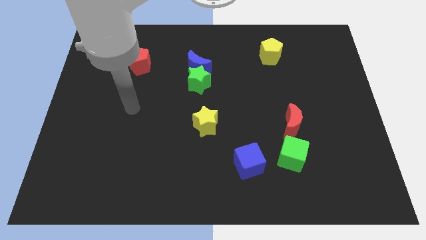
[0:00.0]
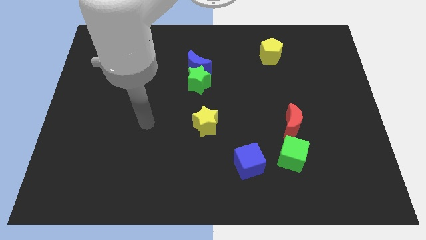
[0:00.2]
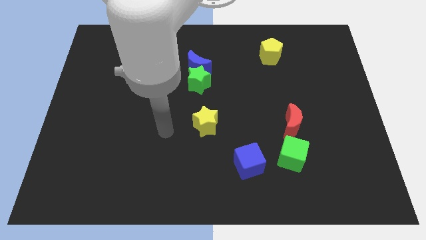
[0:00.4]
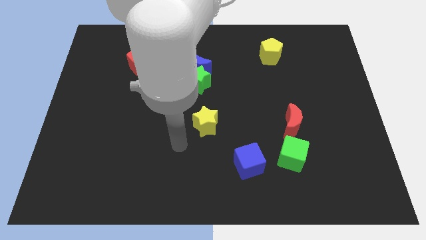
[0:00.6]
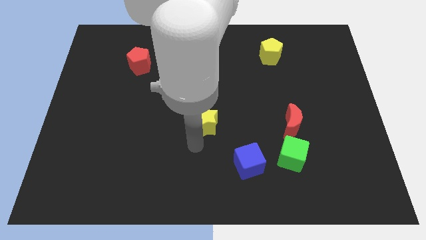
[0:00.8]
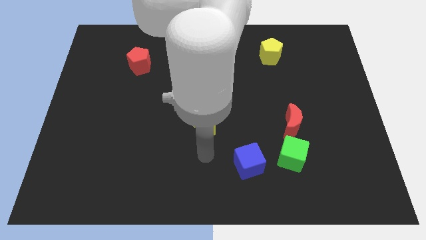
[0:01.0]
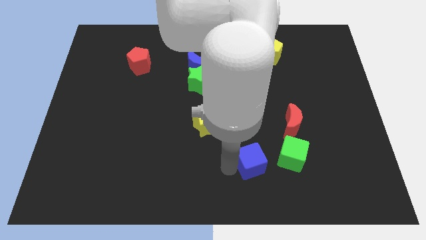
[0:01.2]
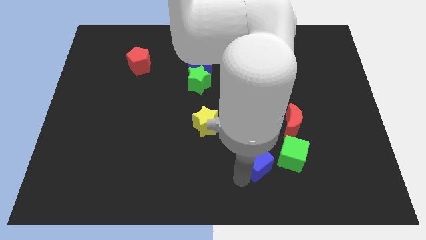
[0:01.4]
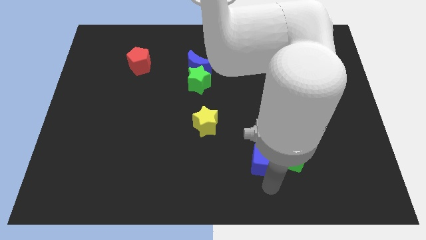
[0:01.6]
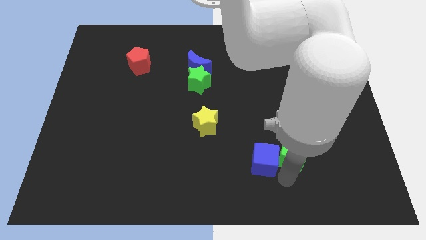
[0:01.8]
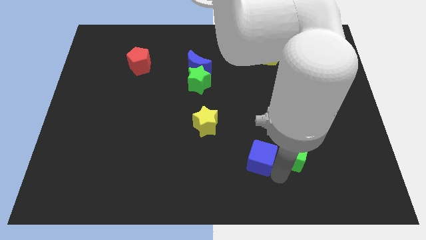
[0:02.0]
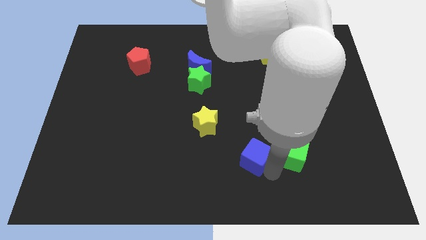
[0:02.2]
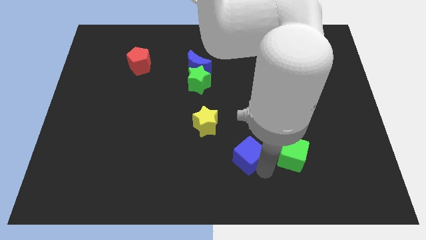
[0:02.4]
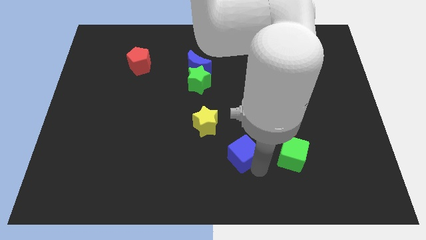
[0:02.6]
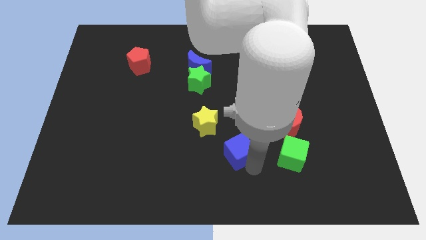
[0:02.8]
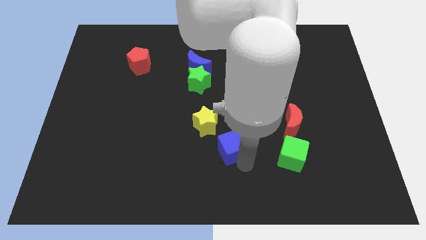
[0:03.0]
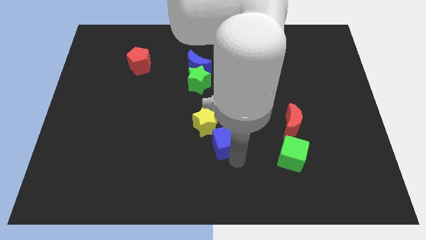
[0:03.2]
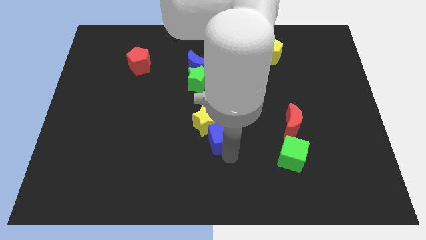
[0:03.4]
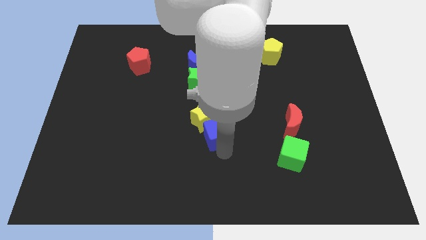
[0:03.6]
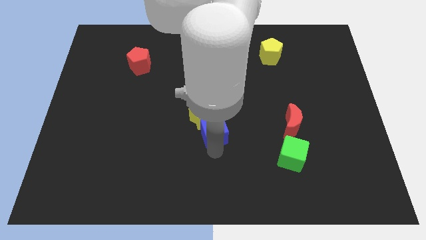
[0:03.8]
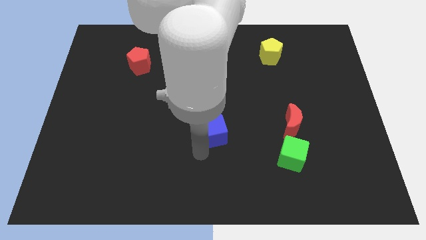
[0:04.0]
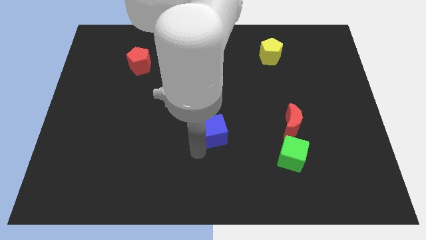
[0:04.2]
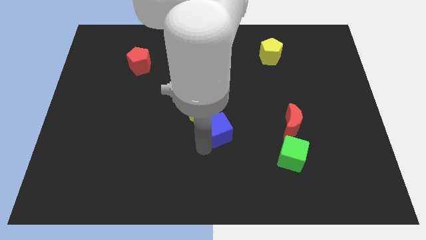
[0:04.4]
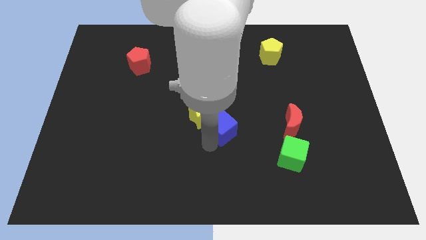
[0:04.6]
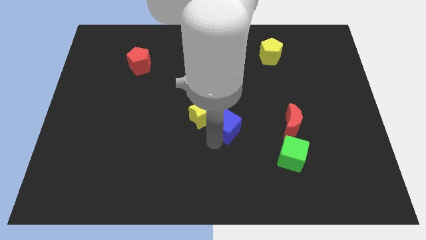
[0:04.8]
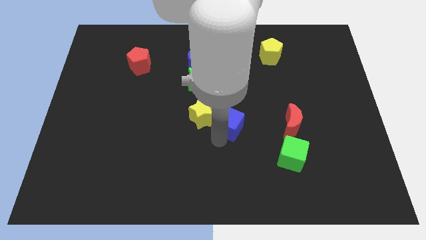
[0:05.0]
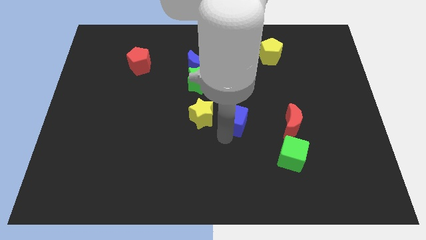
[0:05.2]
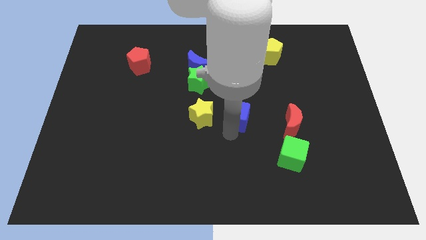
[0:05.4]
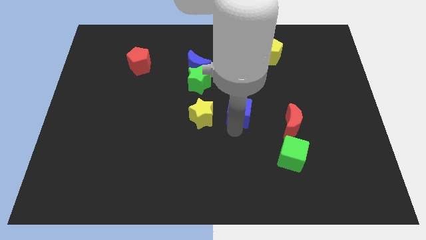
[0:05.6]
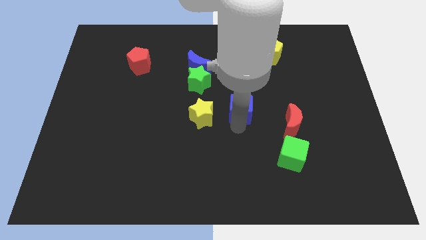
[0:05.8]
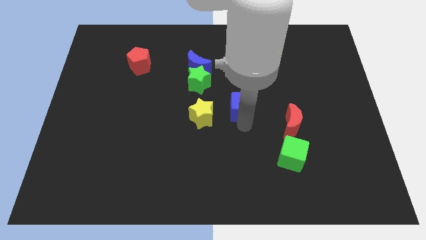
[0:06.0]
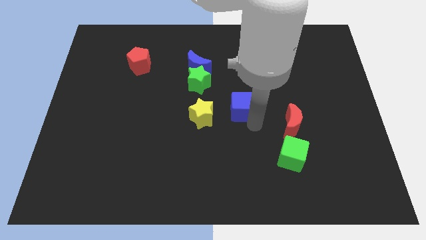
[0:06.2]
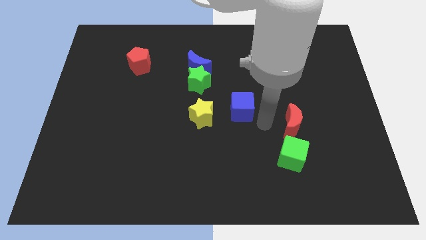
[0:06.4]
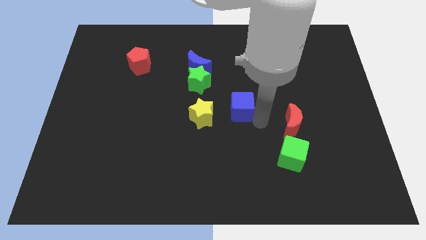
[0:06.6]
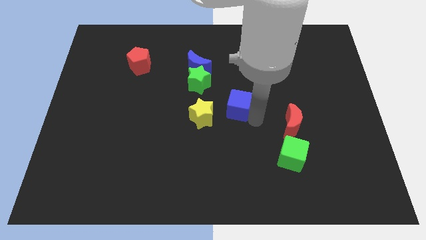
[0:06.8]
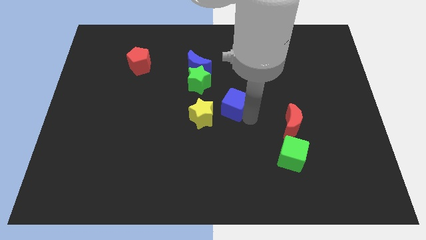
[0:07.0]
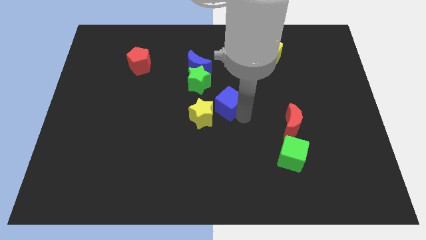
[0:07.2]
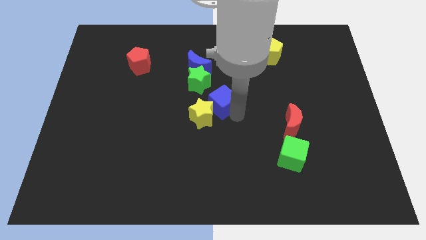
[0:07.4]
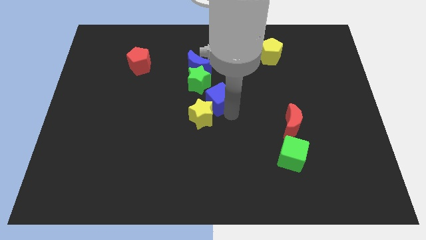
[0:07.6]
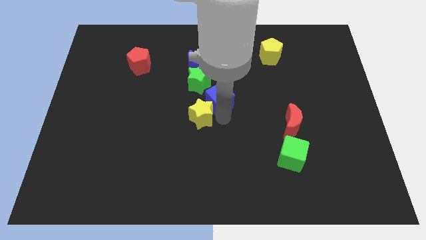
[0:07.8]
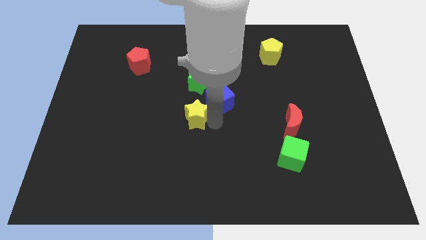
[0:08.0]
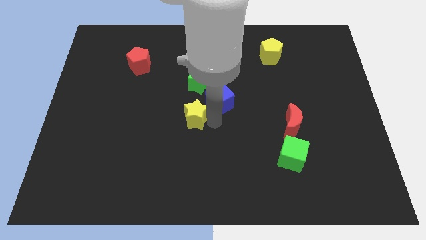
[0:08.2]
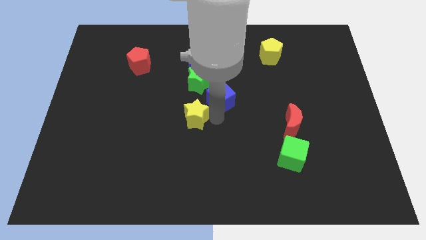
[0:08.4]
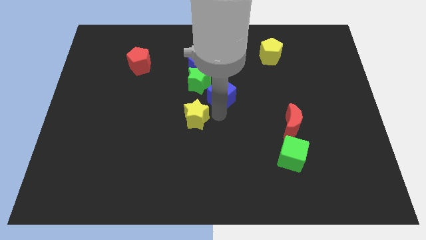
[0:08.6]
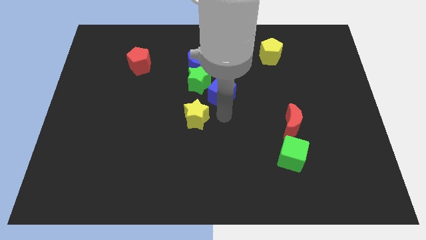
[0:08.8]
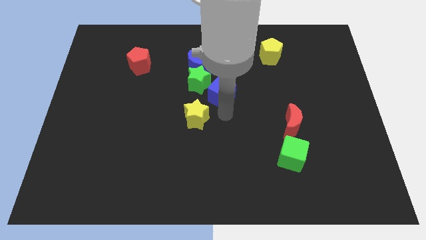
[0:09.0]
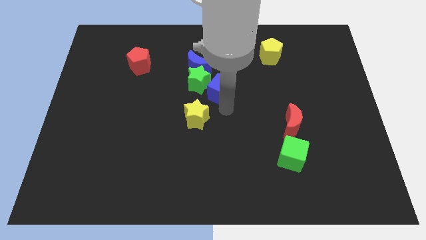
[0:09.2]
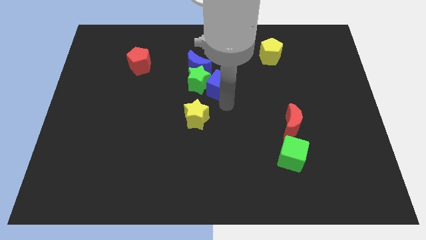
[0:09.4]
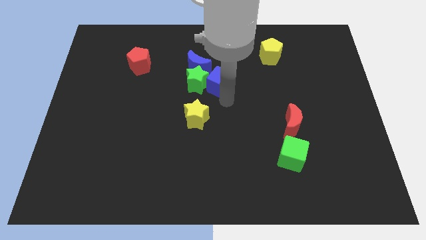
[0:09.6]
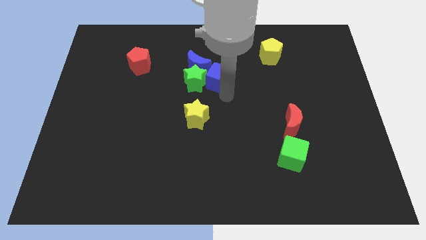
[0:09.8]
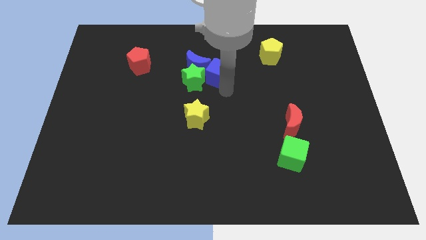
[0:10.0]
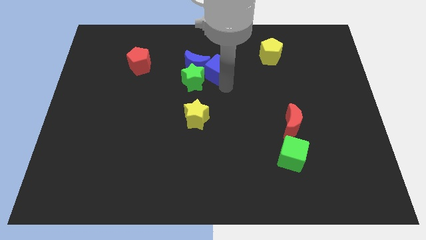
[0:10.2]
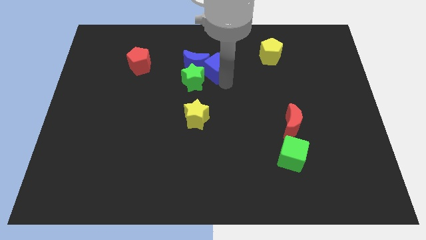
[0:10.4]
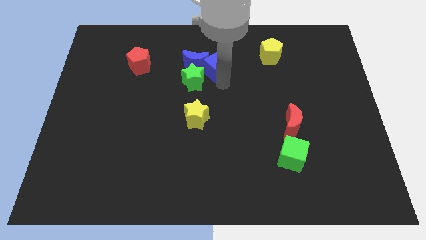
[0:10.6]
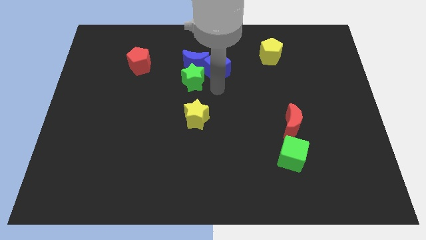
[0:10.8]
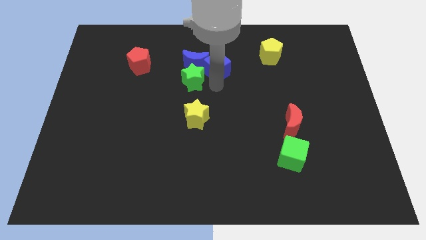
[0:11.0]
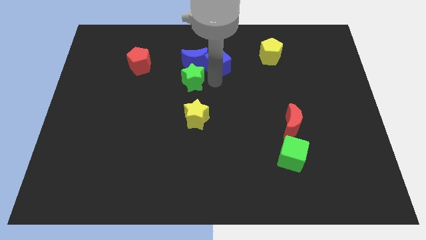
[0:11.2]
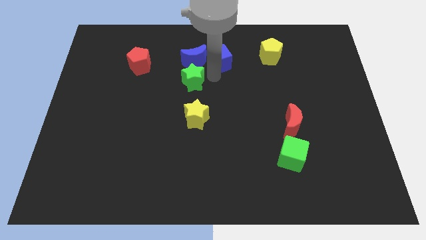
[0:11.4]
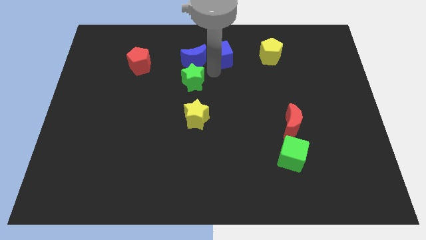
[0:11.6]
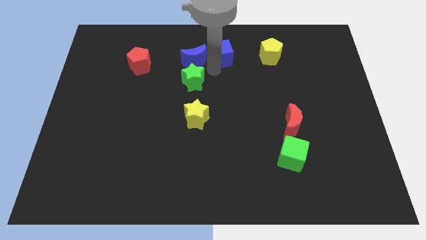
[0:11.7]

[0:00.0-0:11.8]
move the blue cube to the top side

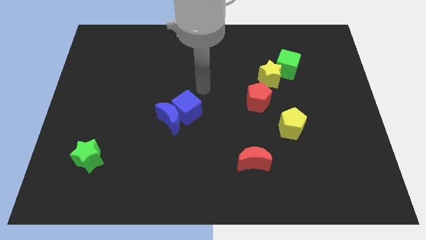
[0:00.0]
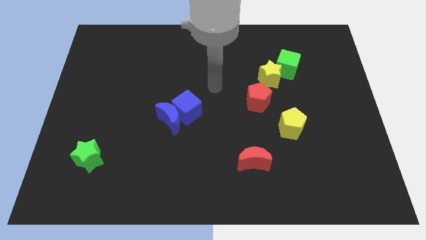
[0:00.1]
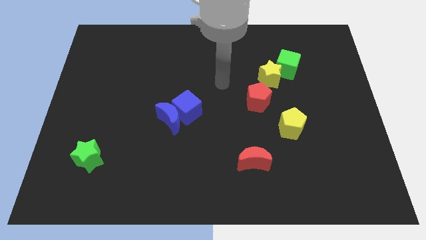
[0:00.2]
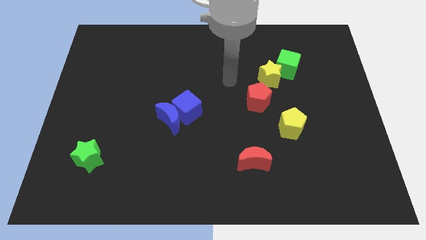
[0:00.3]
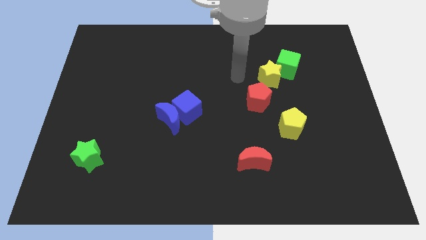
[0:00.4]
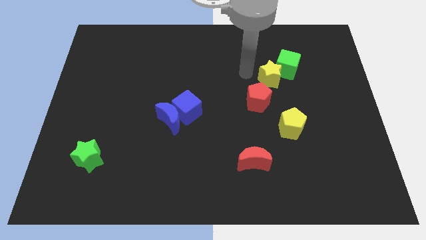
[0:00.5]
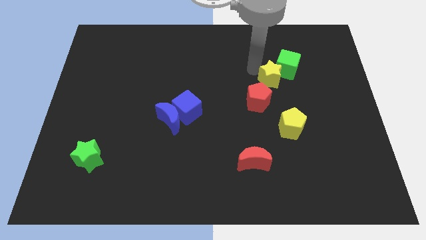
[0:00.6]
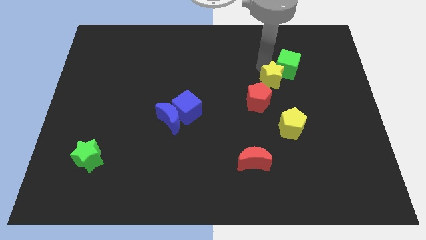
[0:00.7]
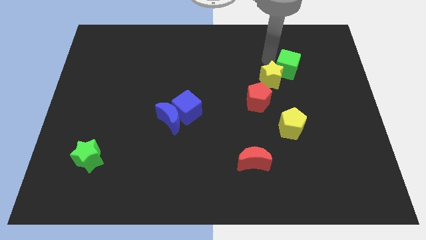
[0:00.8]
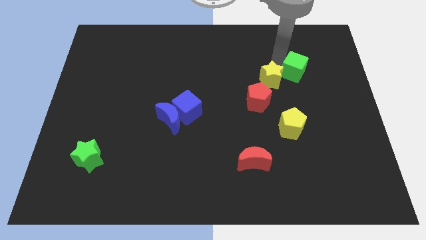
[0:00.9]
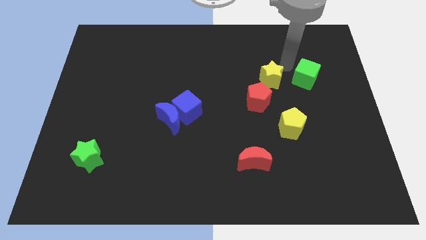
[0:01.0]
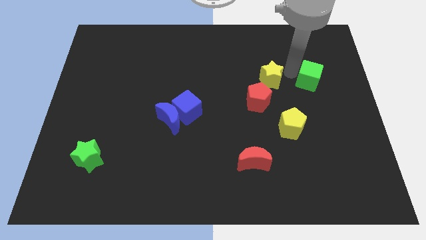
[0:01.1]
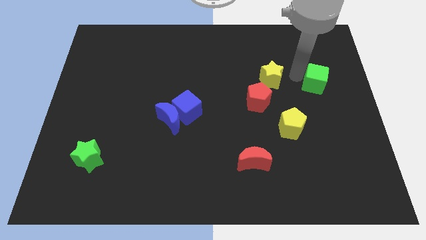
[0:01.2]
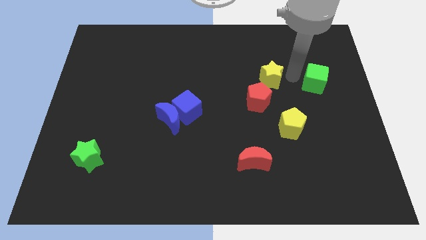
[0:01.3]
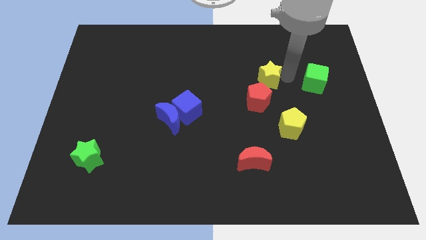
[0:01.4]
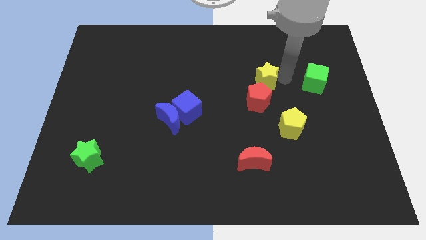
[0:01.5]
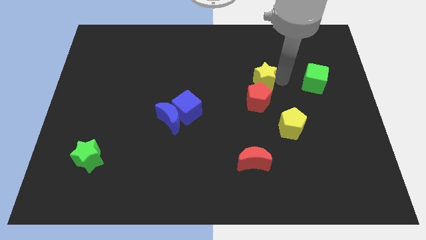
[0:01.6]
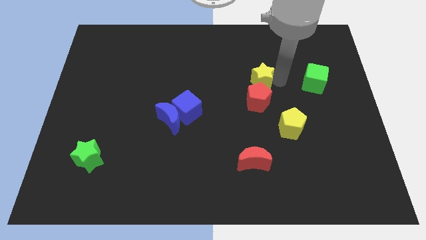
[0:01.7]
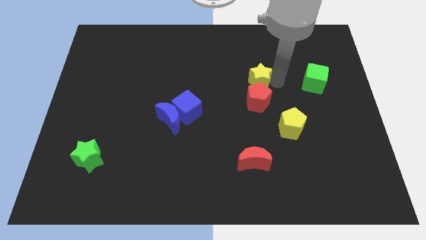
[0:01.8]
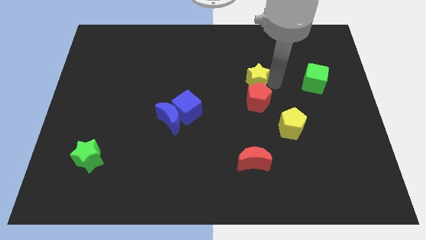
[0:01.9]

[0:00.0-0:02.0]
put the yellow star to the center
